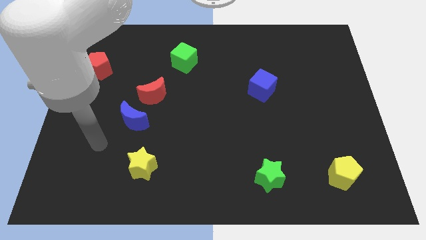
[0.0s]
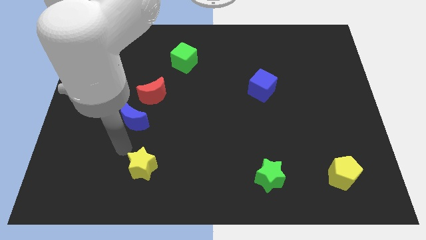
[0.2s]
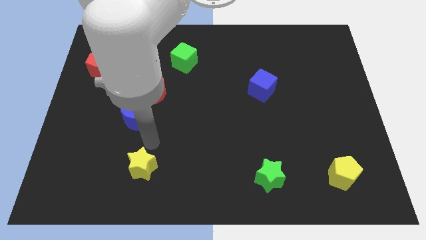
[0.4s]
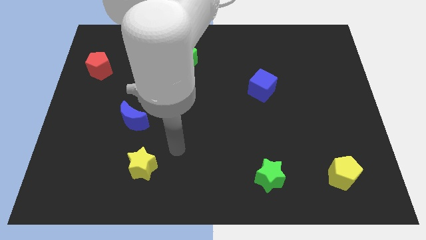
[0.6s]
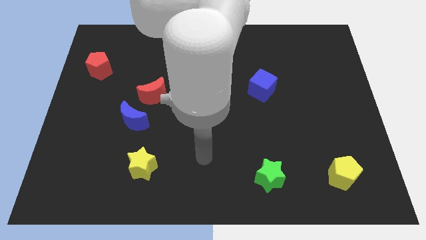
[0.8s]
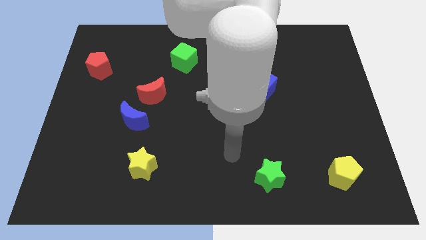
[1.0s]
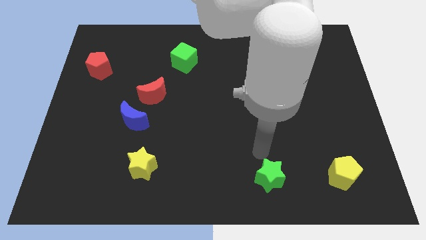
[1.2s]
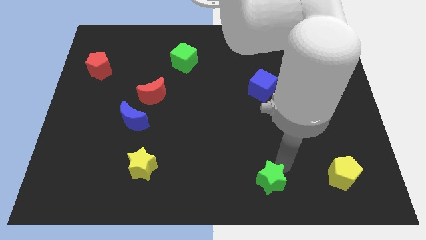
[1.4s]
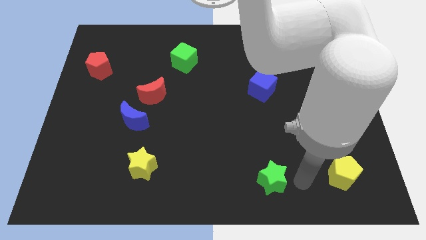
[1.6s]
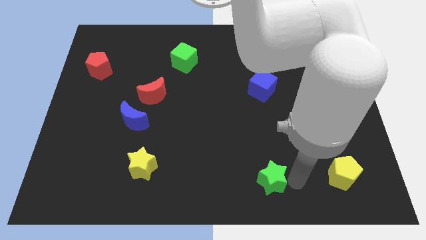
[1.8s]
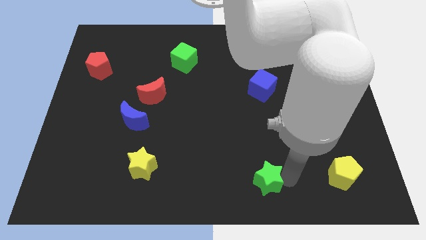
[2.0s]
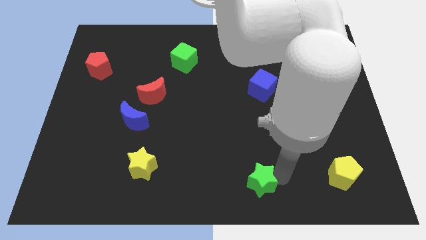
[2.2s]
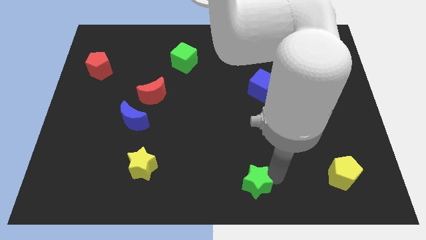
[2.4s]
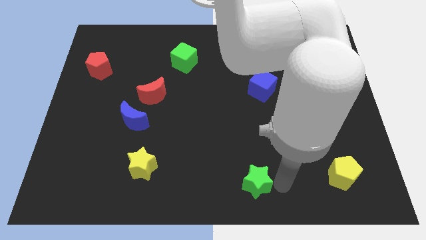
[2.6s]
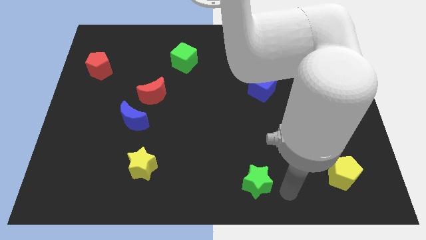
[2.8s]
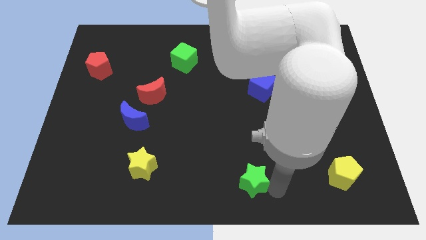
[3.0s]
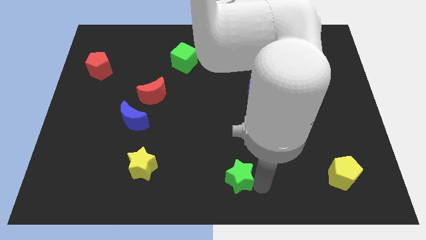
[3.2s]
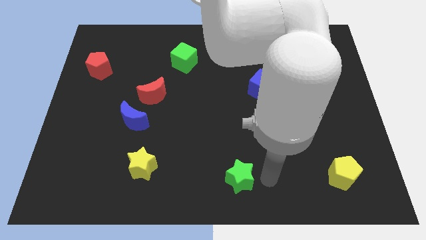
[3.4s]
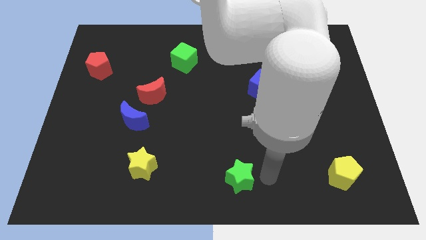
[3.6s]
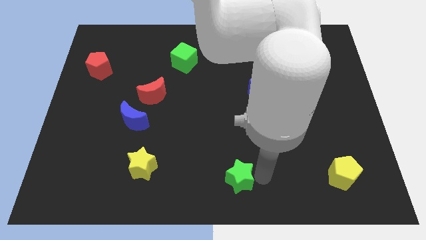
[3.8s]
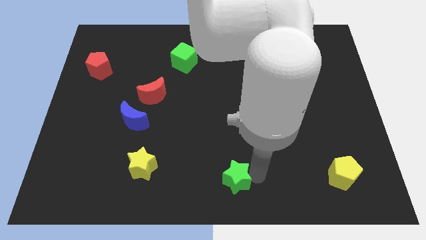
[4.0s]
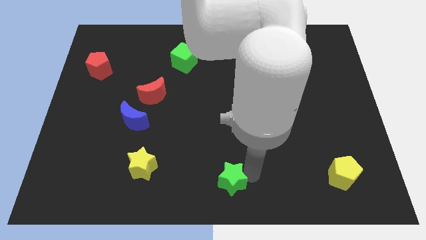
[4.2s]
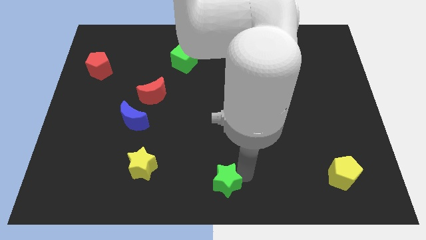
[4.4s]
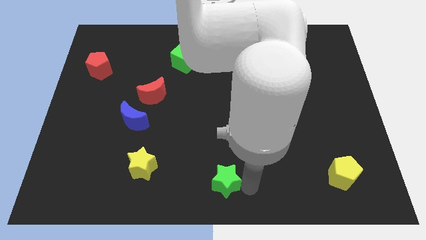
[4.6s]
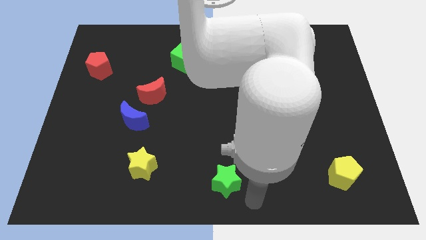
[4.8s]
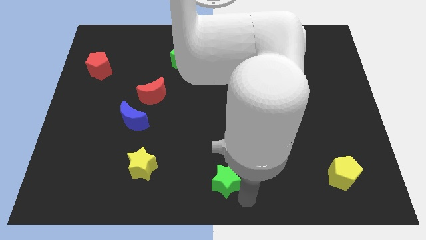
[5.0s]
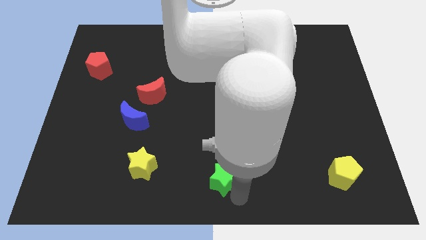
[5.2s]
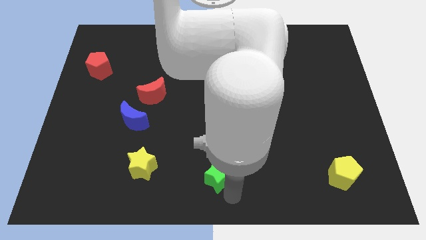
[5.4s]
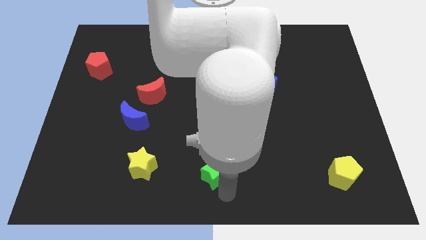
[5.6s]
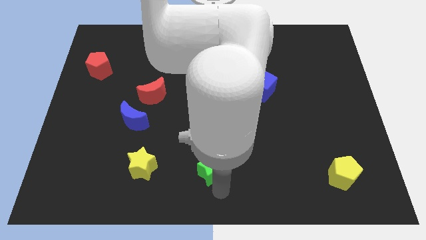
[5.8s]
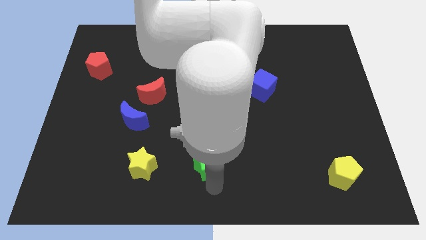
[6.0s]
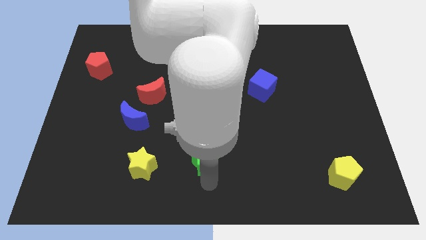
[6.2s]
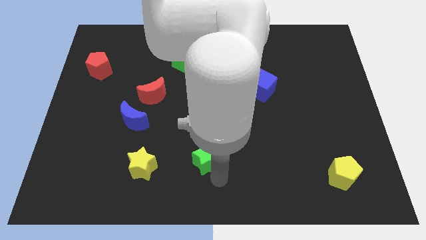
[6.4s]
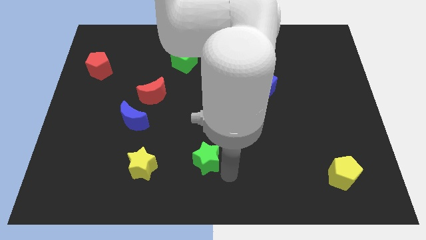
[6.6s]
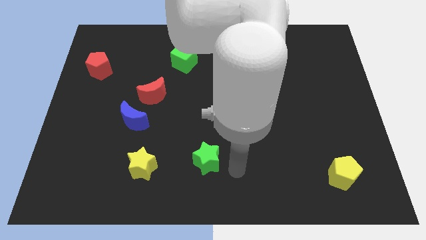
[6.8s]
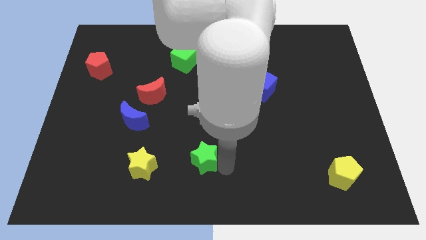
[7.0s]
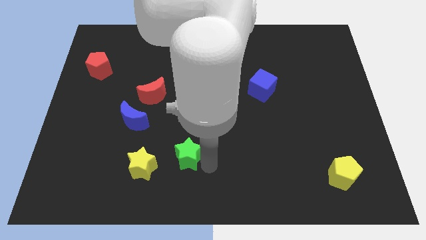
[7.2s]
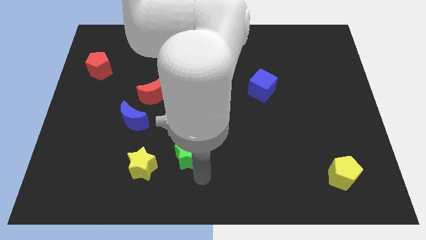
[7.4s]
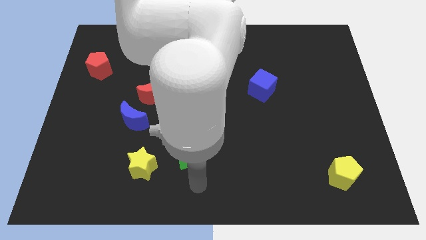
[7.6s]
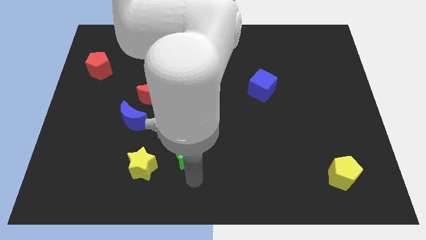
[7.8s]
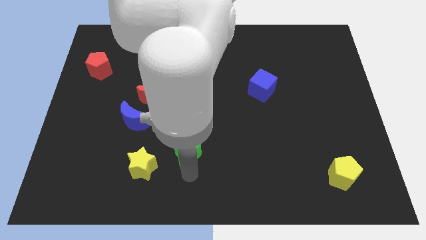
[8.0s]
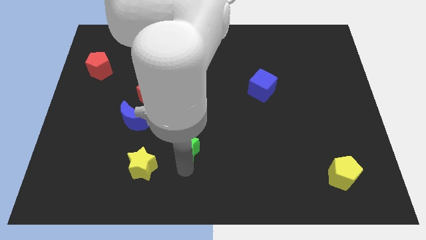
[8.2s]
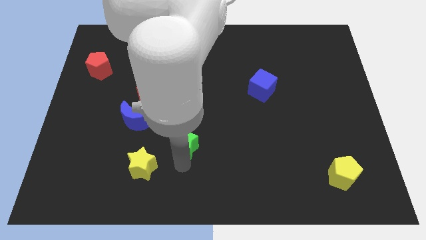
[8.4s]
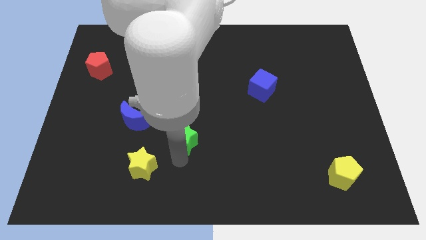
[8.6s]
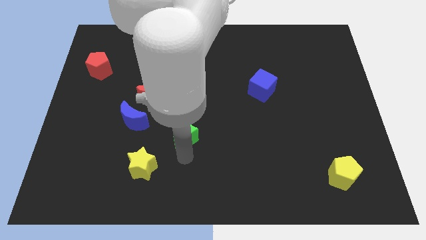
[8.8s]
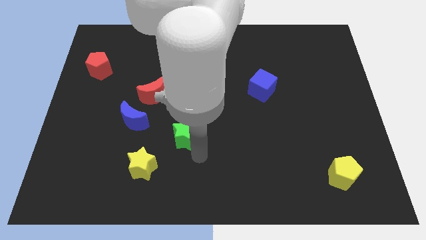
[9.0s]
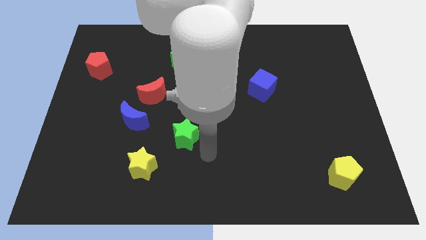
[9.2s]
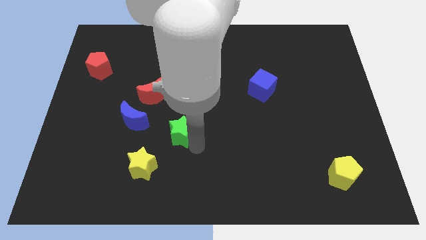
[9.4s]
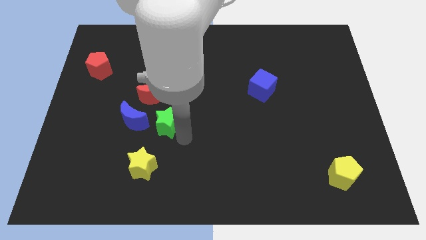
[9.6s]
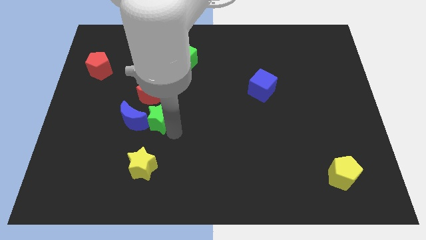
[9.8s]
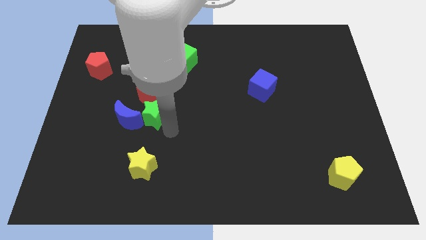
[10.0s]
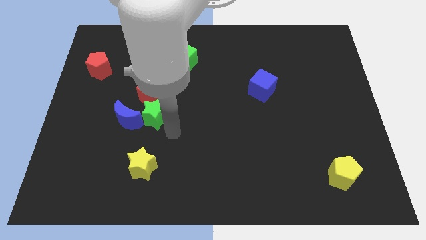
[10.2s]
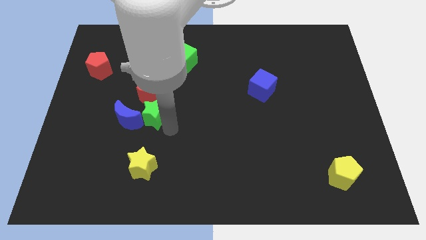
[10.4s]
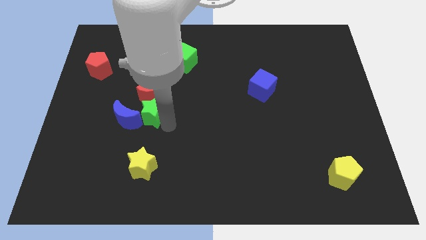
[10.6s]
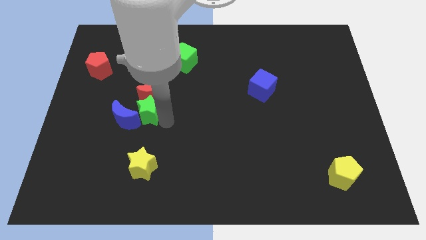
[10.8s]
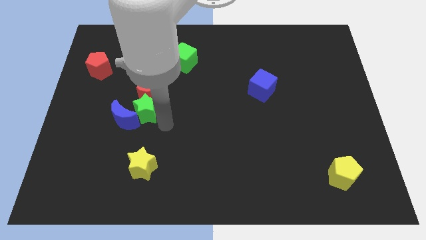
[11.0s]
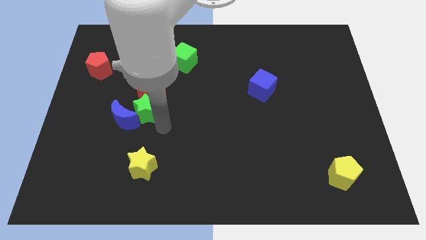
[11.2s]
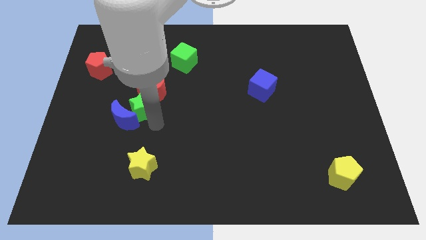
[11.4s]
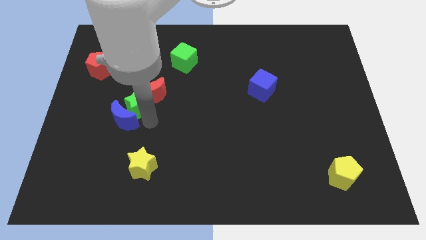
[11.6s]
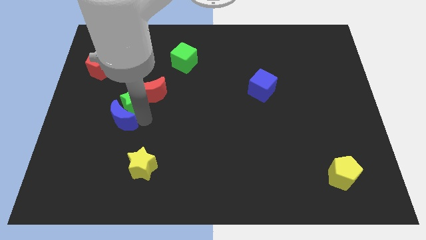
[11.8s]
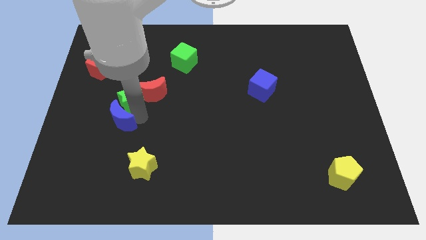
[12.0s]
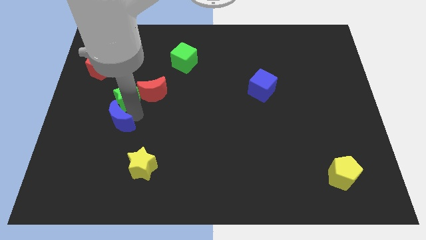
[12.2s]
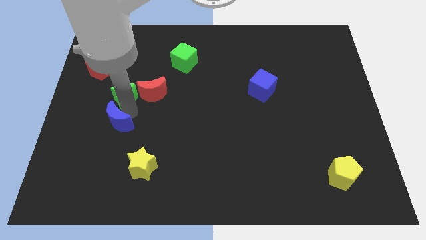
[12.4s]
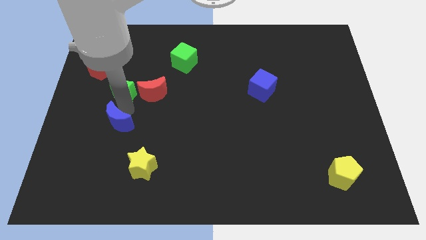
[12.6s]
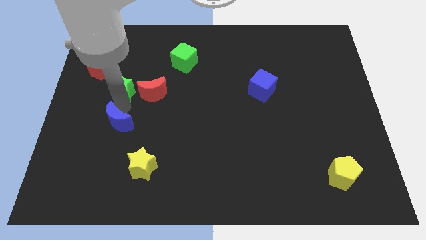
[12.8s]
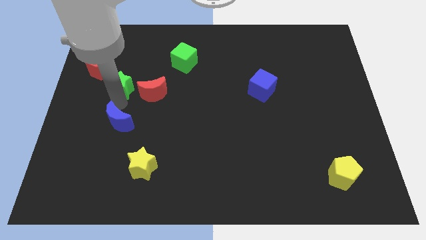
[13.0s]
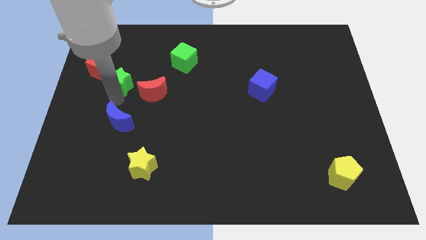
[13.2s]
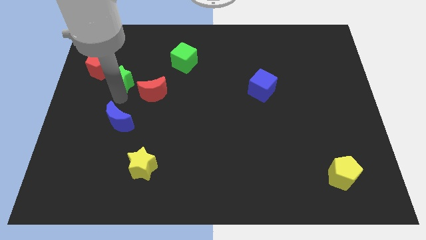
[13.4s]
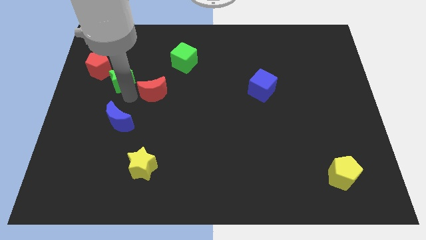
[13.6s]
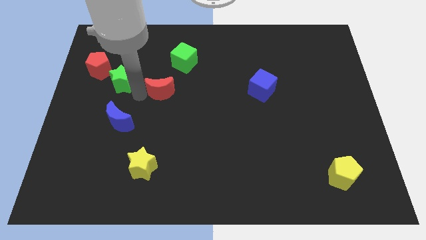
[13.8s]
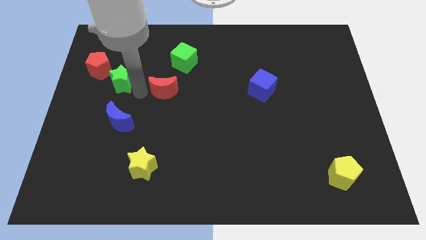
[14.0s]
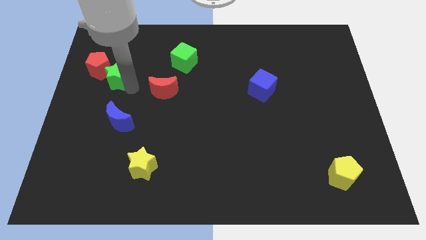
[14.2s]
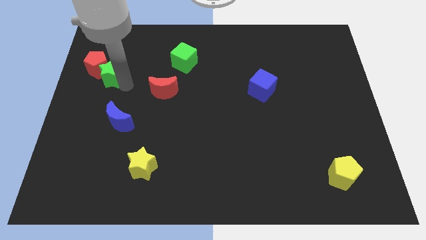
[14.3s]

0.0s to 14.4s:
move the green star close to the red pentagon

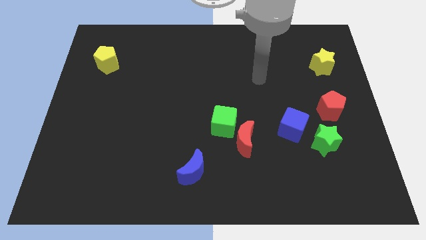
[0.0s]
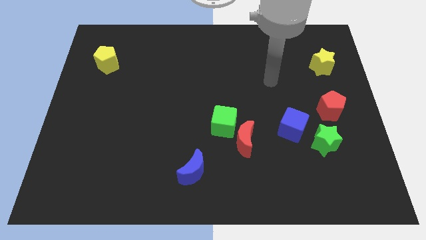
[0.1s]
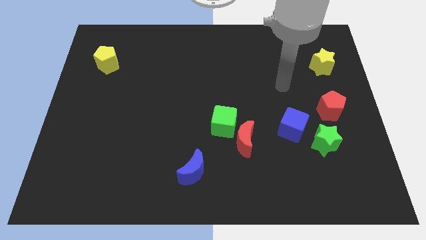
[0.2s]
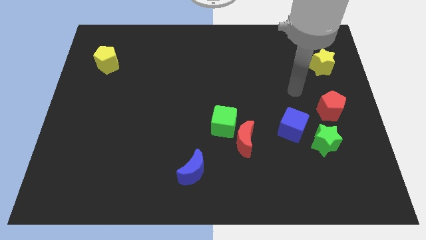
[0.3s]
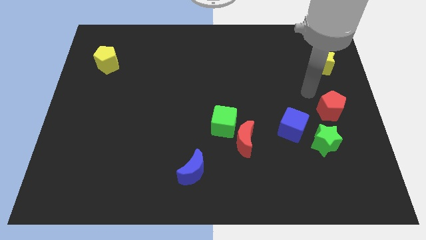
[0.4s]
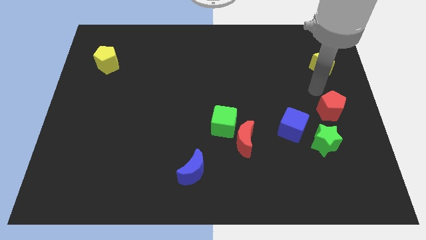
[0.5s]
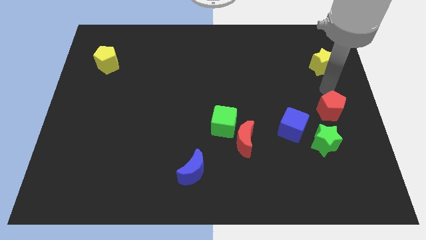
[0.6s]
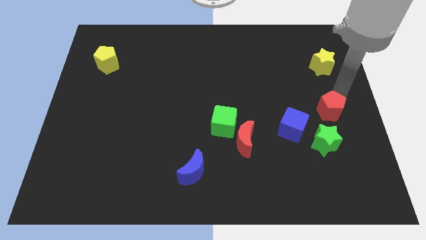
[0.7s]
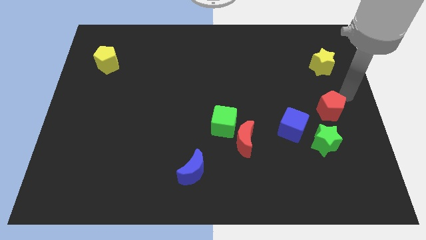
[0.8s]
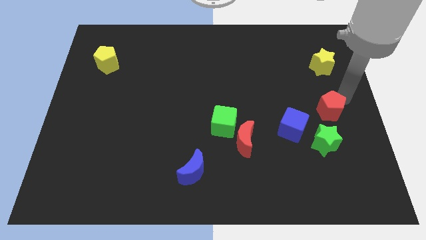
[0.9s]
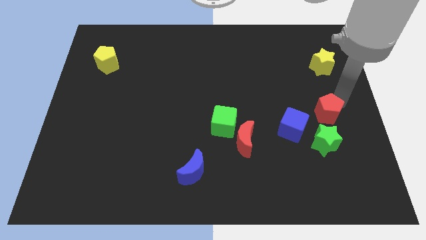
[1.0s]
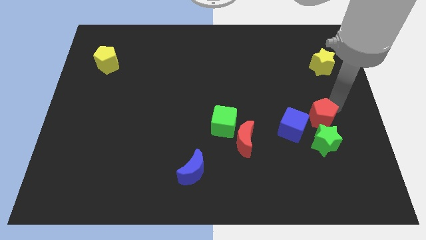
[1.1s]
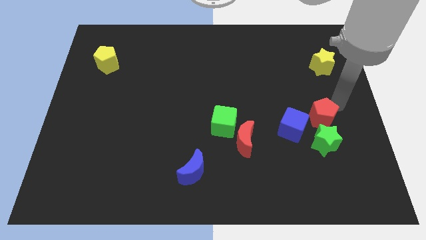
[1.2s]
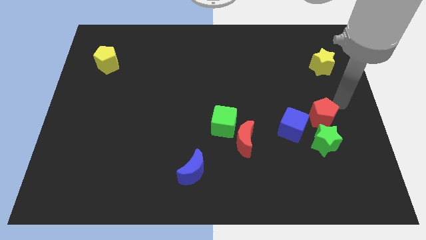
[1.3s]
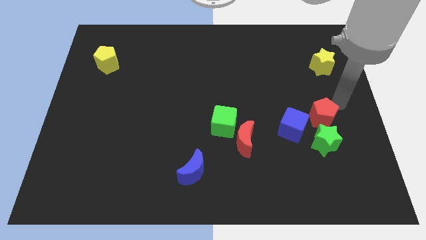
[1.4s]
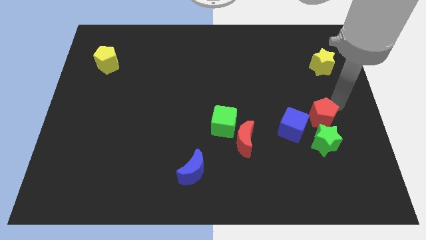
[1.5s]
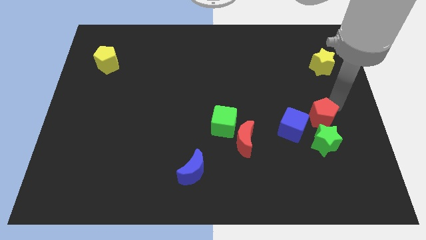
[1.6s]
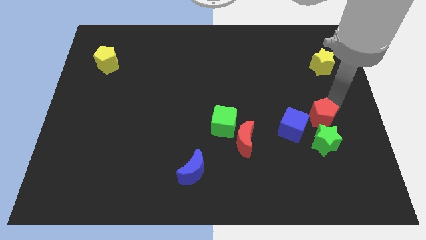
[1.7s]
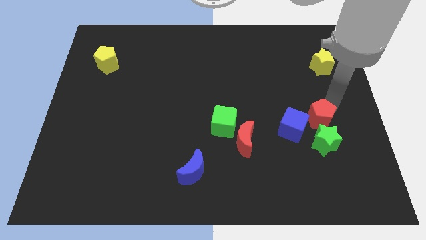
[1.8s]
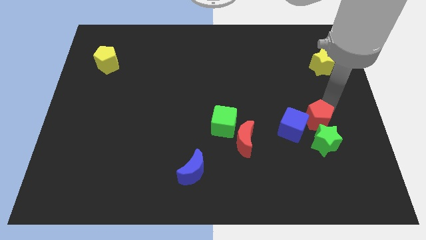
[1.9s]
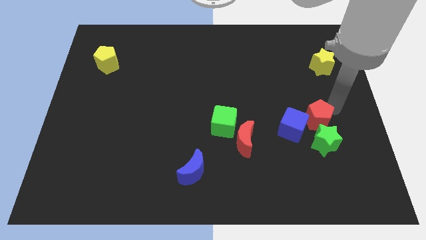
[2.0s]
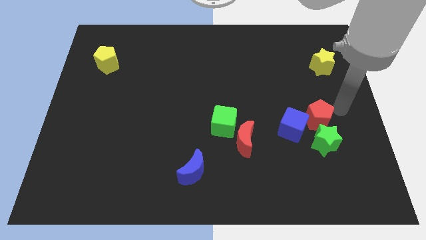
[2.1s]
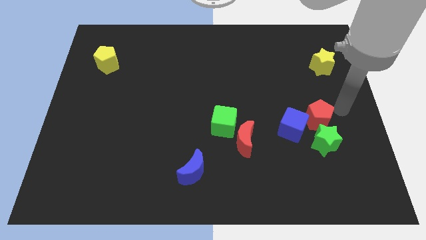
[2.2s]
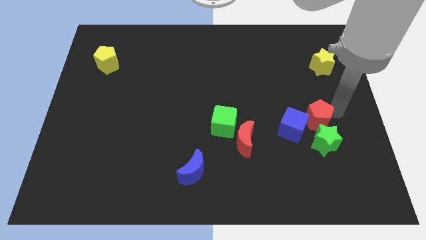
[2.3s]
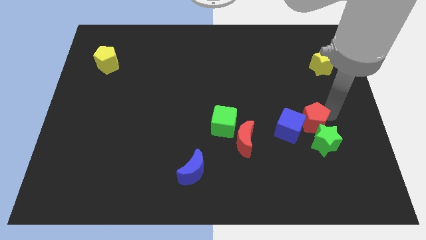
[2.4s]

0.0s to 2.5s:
put the red pentagon to the blue cube
